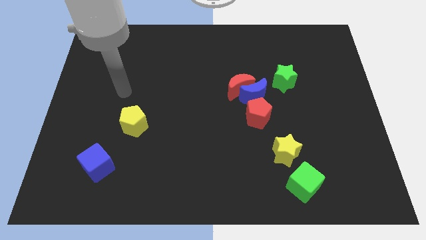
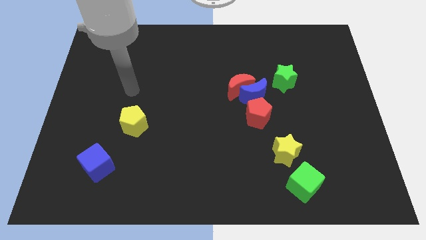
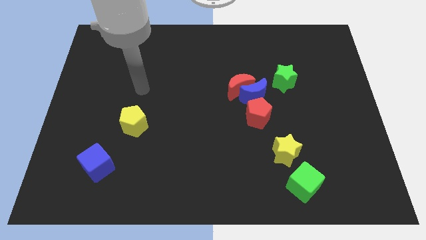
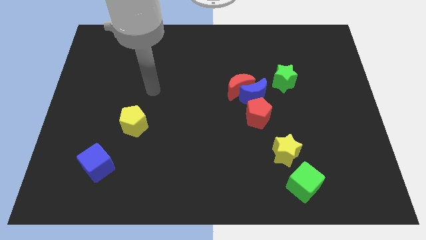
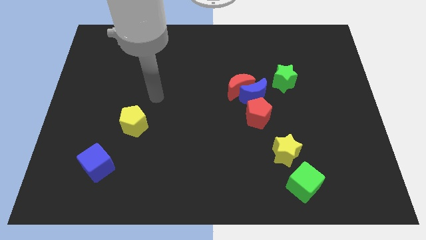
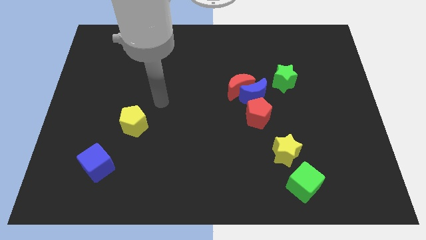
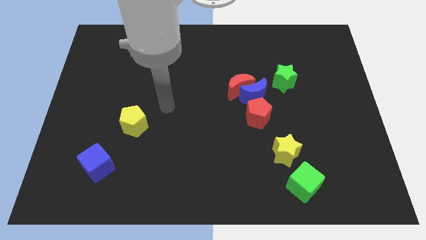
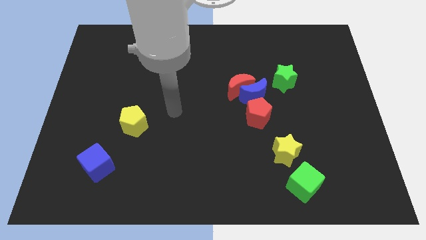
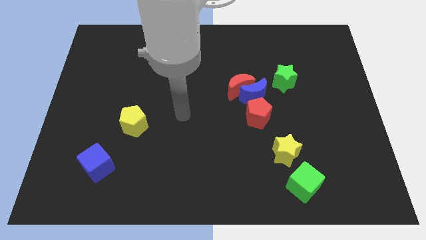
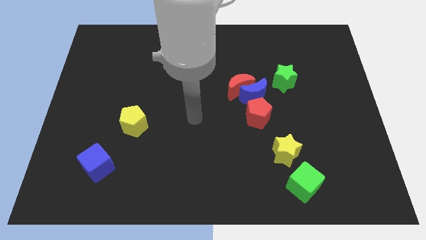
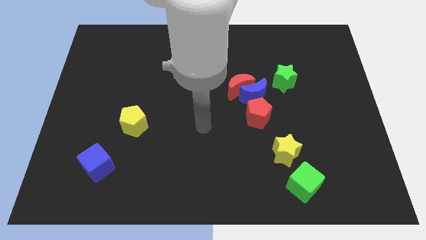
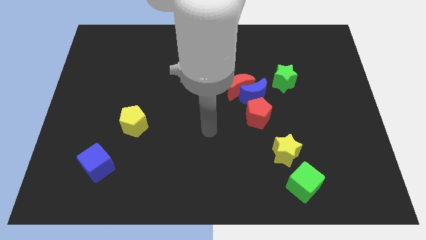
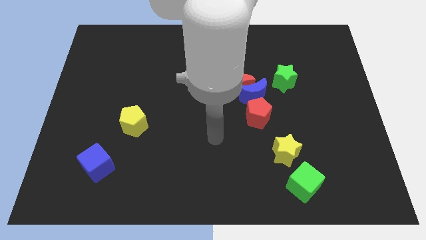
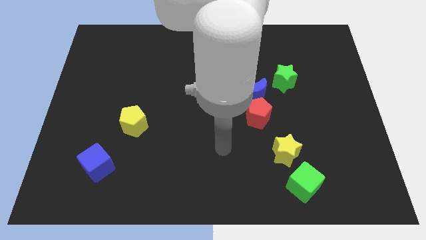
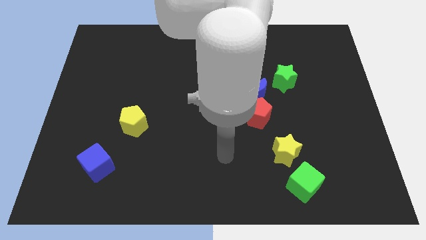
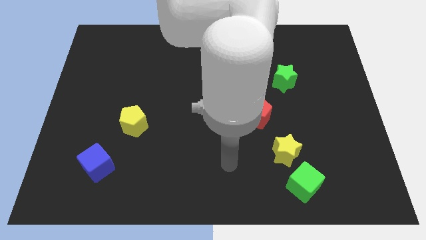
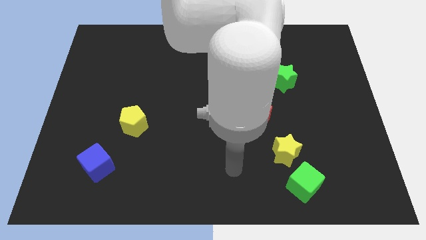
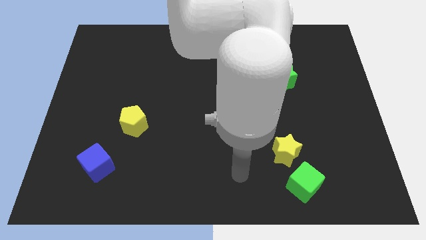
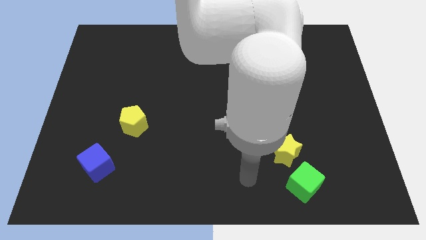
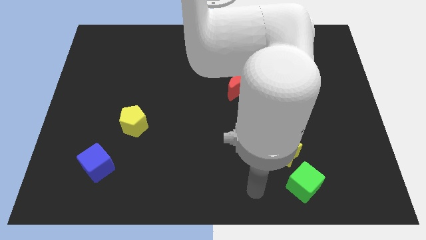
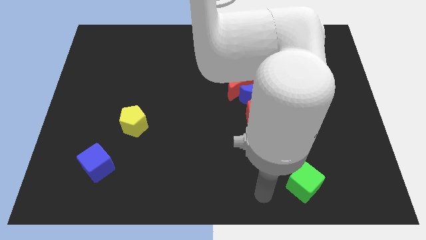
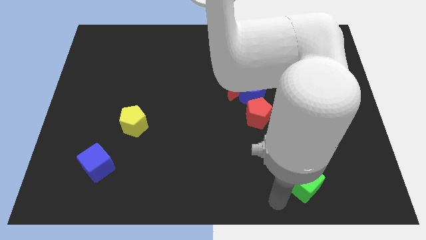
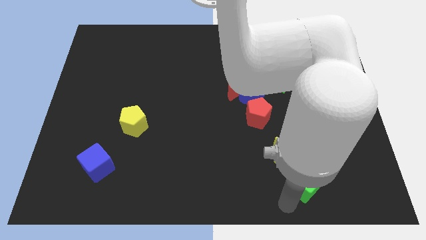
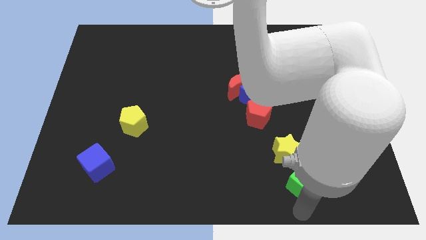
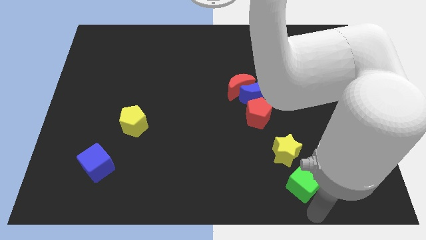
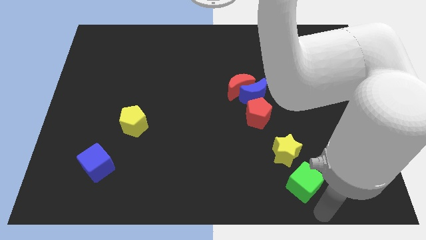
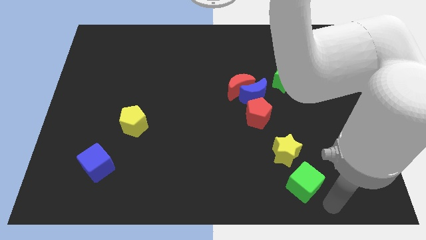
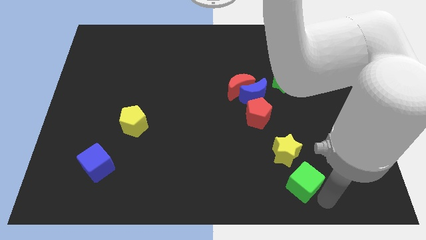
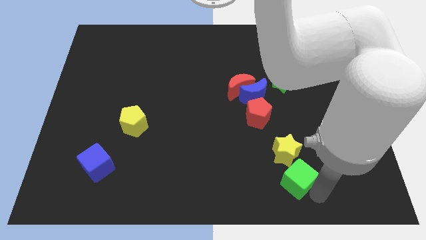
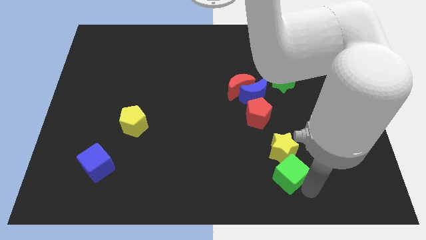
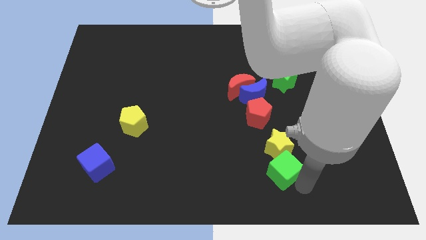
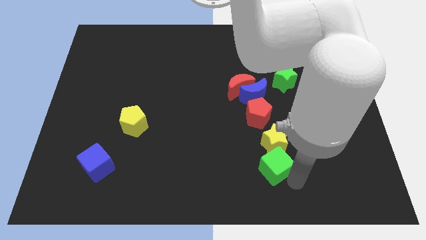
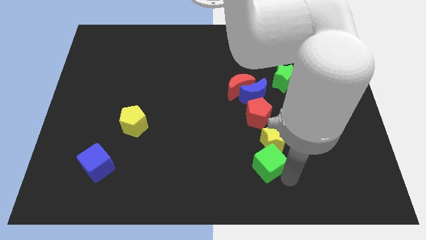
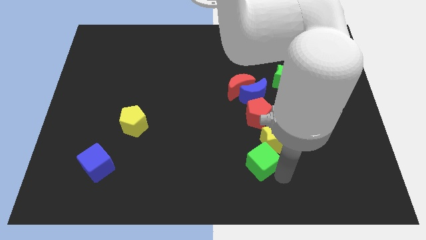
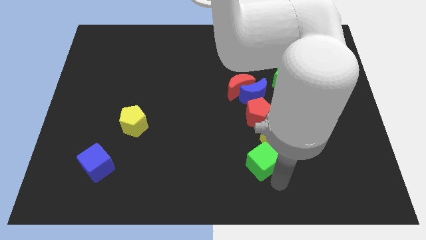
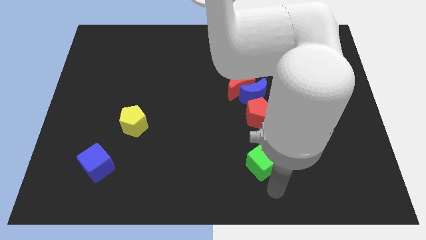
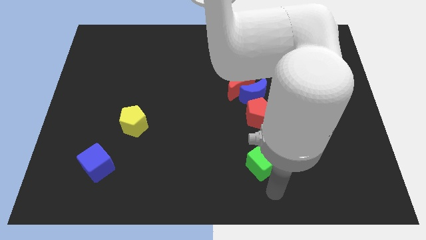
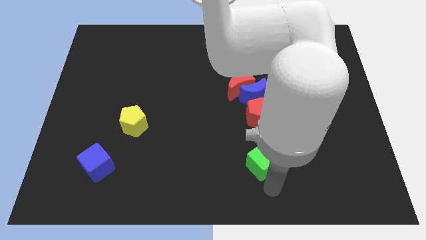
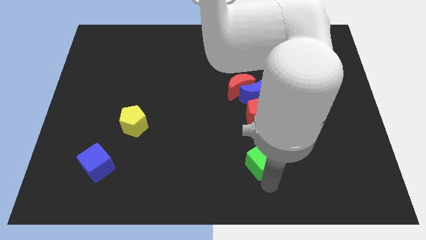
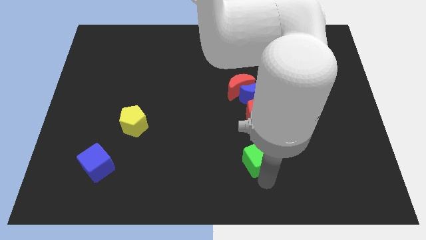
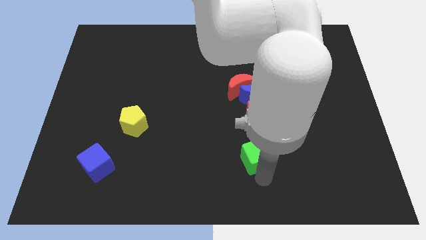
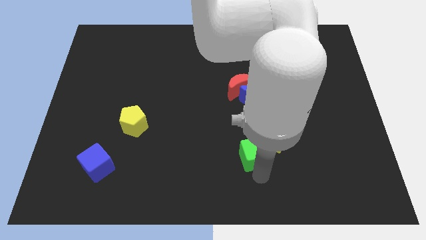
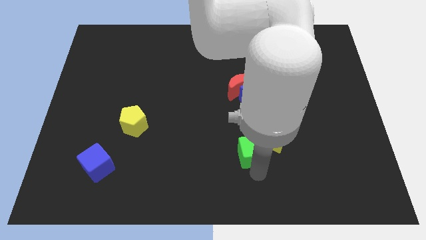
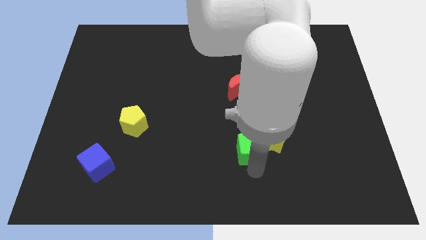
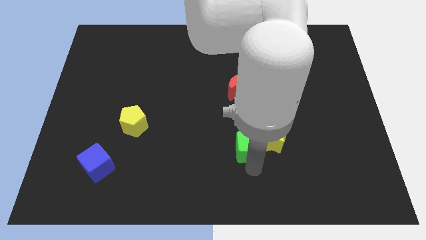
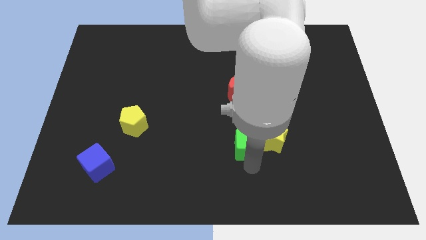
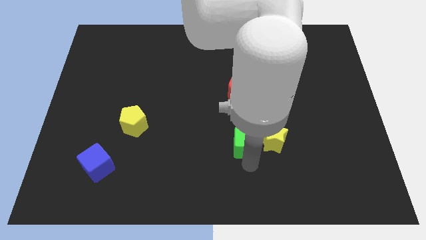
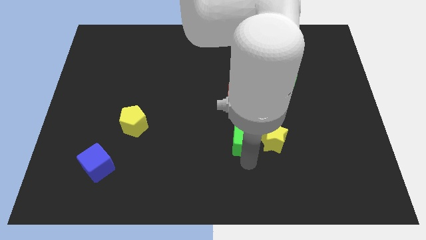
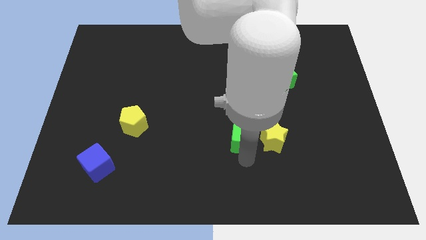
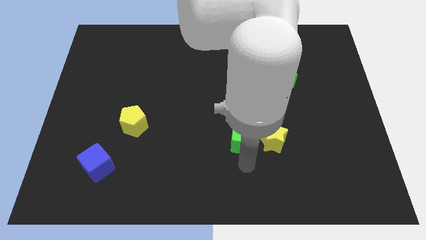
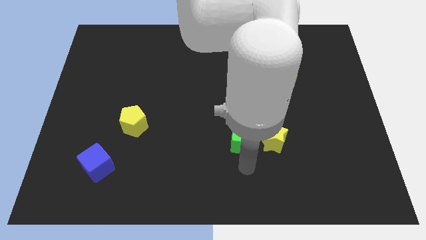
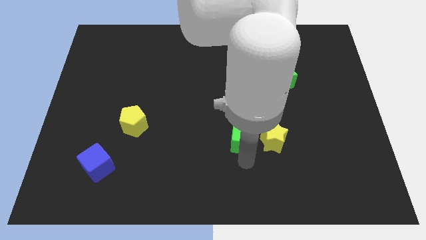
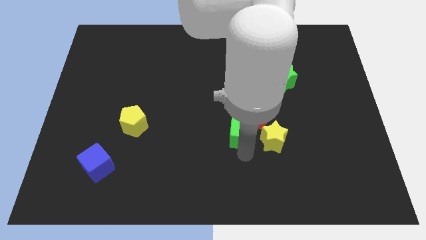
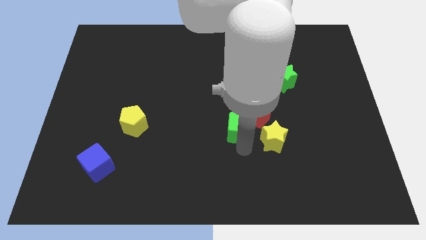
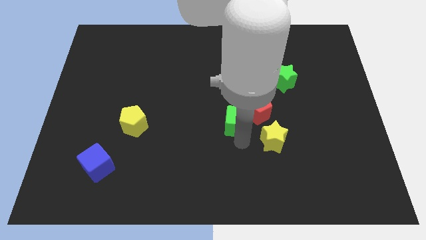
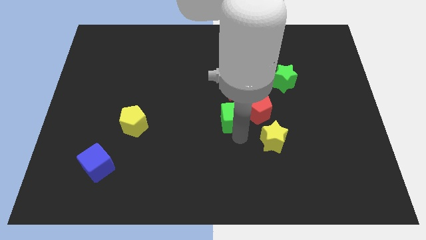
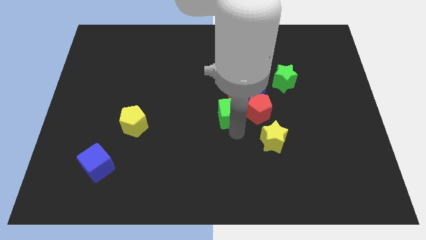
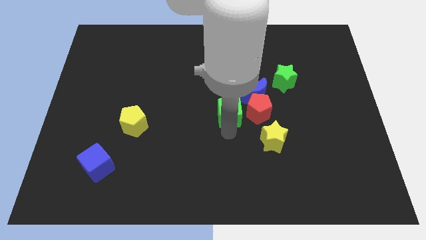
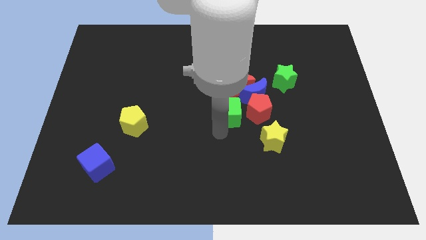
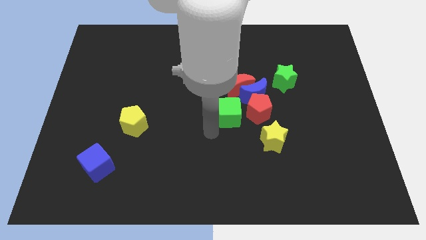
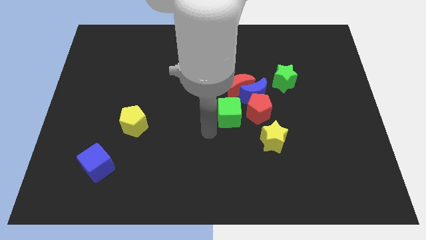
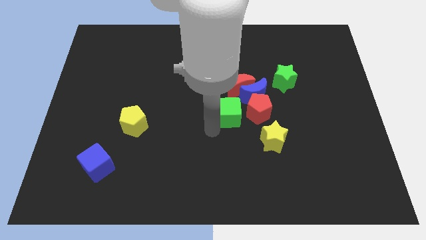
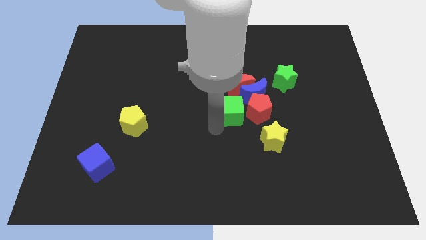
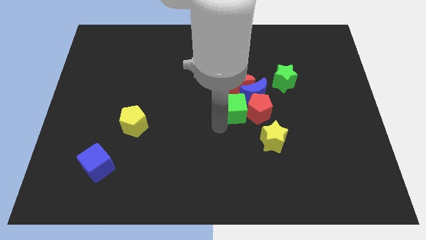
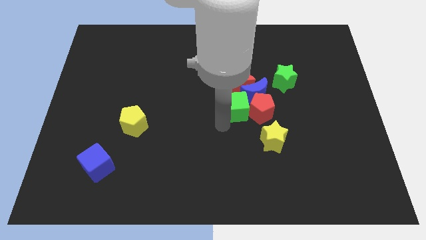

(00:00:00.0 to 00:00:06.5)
slide the green cube to the blue moon
